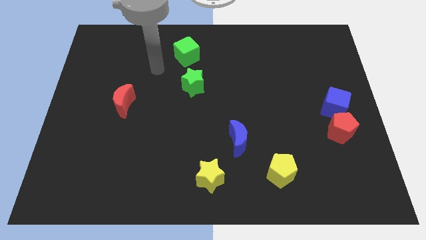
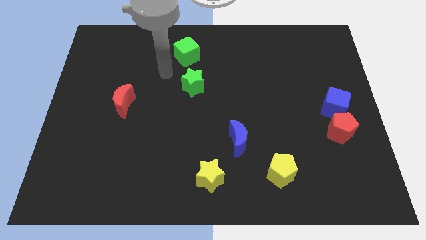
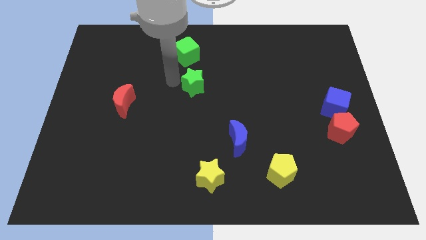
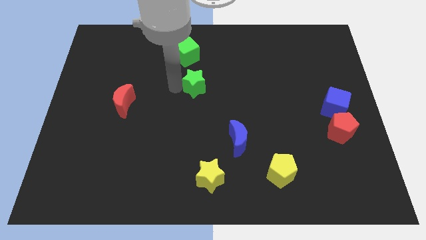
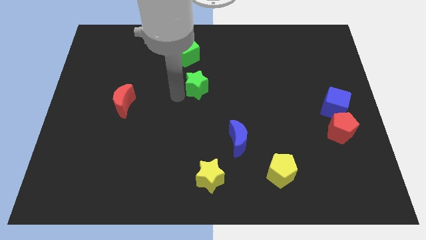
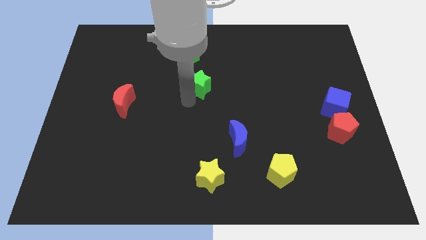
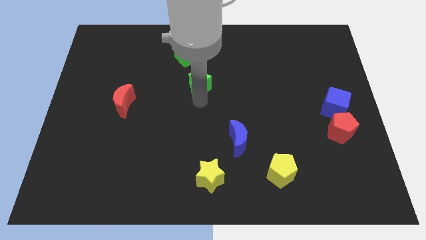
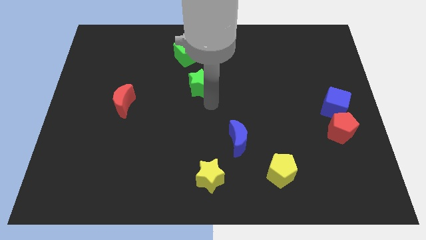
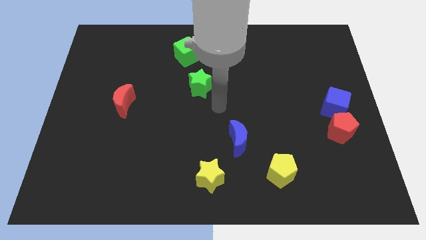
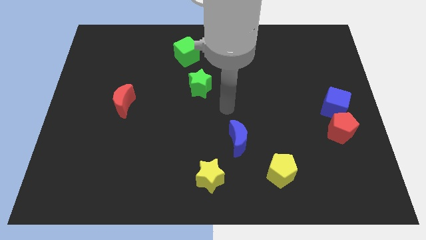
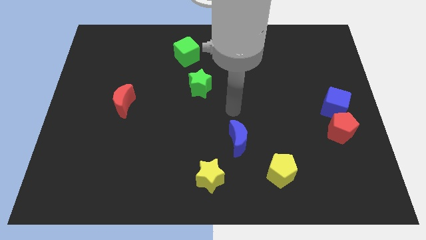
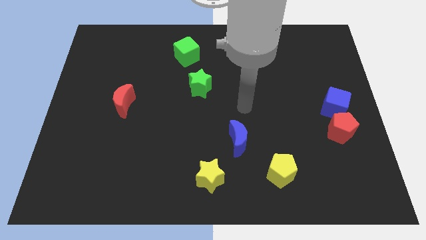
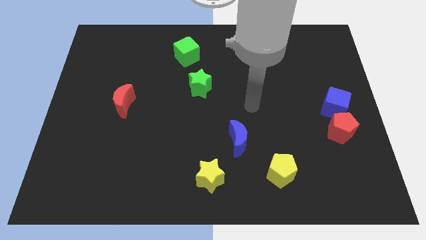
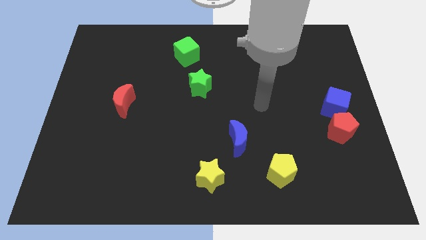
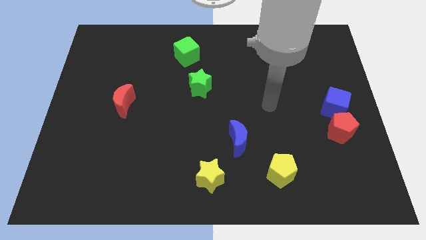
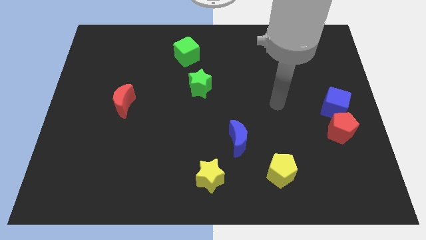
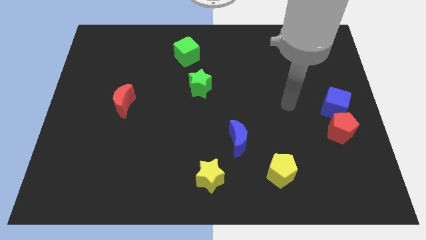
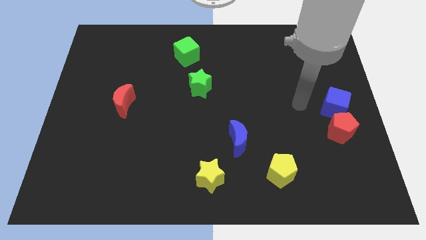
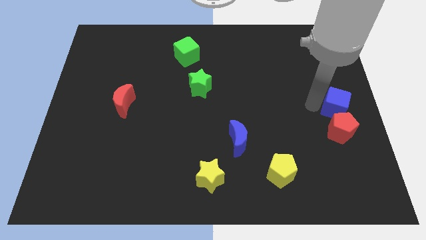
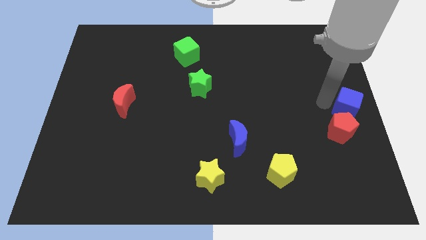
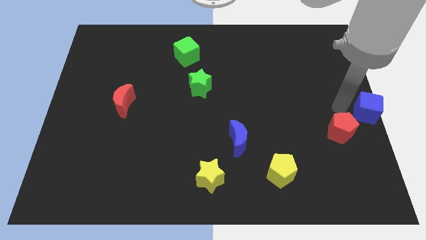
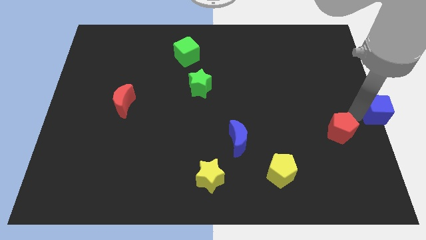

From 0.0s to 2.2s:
move the red pentagon away from the blue cube

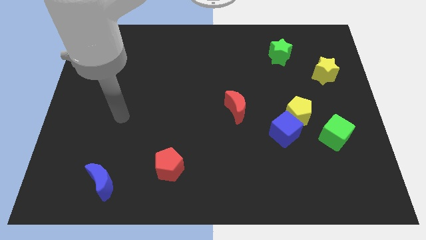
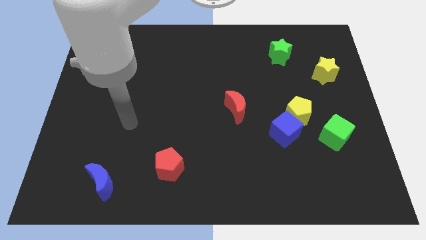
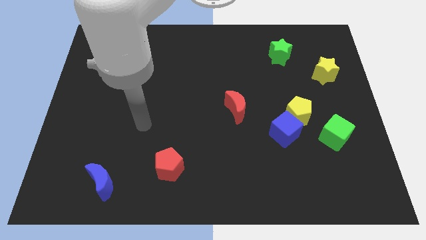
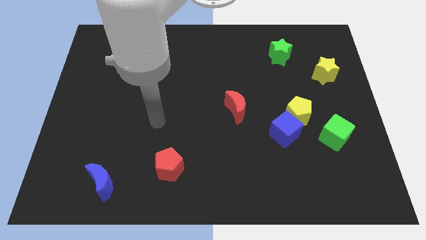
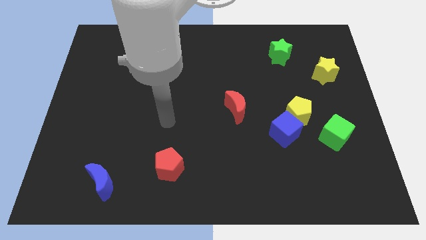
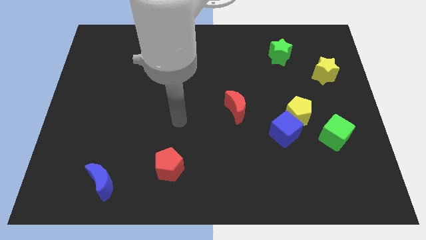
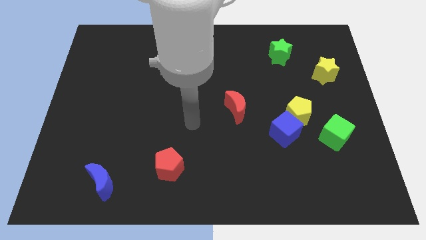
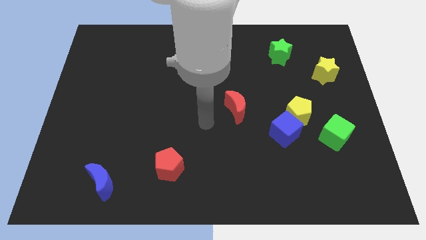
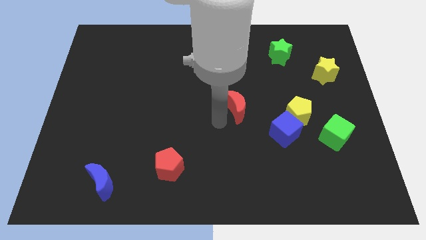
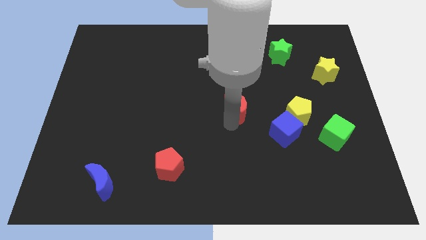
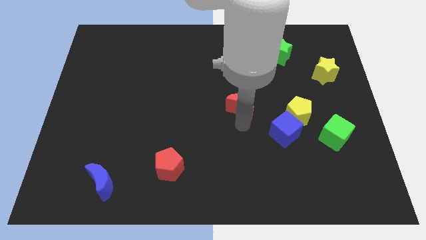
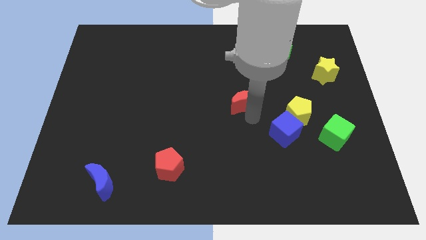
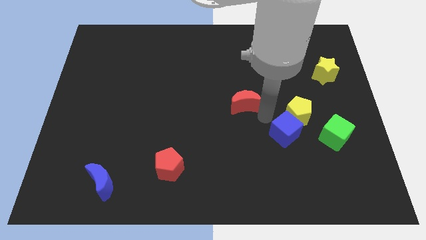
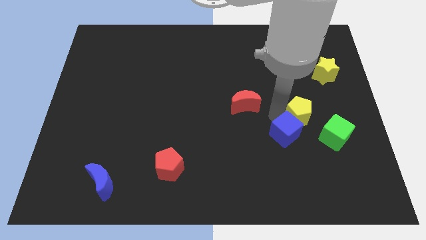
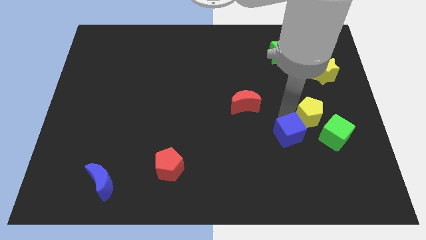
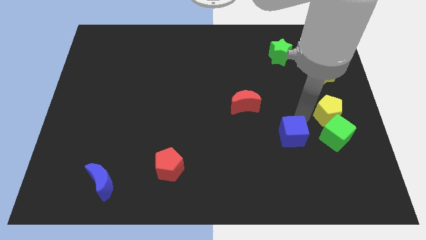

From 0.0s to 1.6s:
pull the blue cube apart from the yellow pentagon

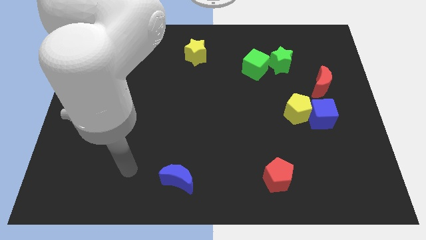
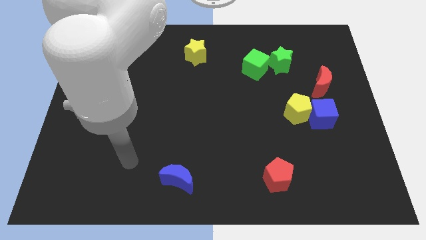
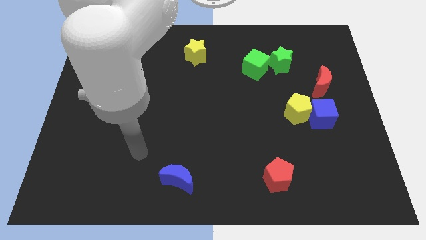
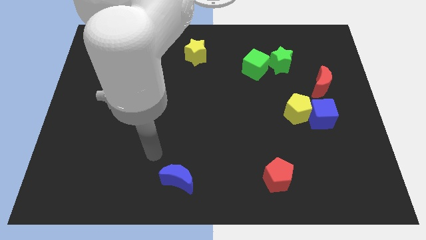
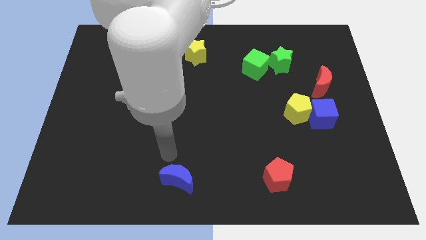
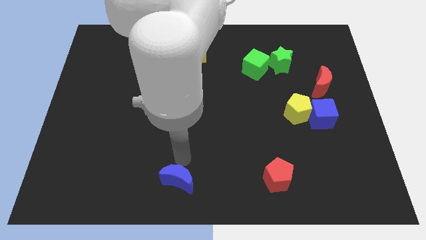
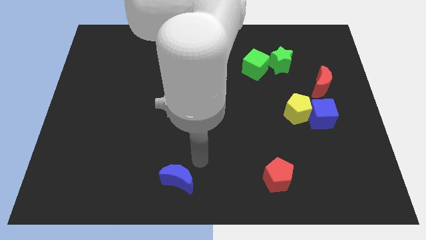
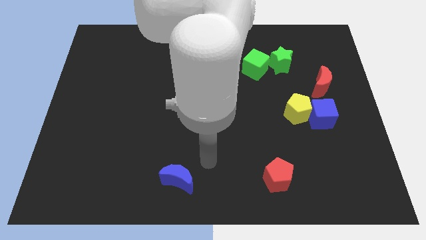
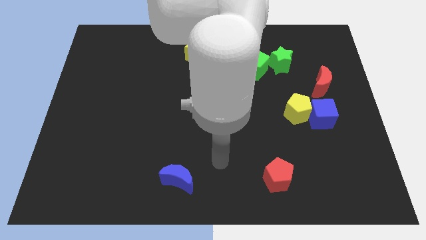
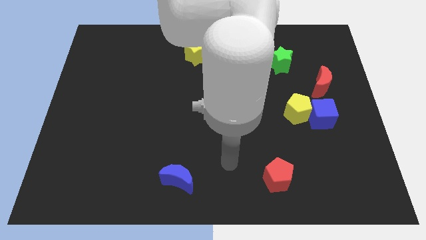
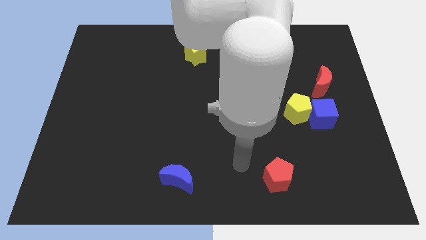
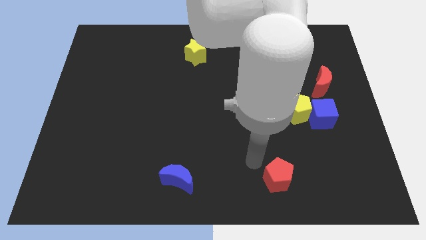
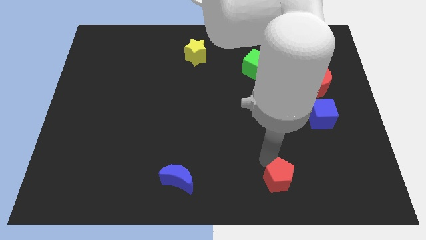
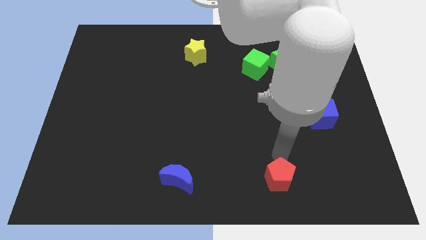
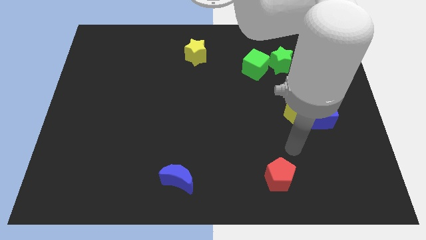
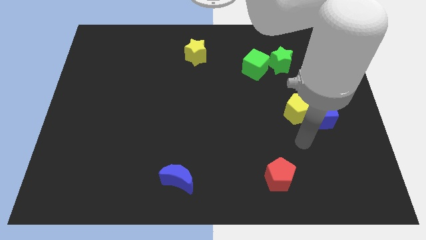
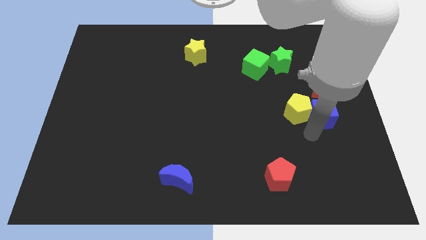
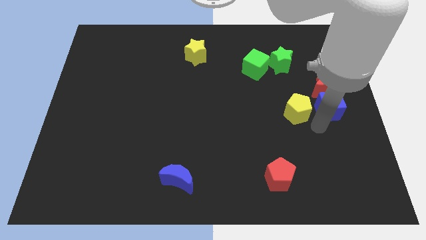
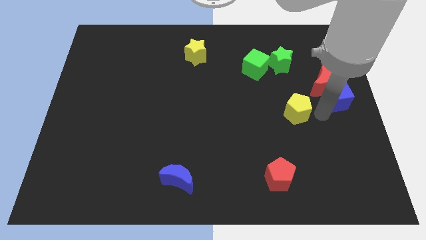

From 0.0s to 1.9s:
pull the yellow pentagon apart from the blue cube

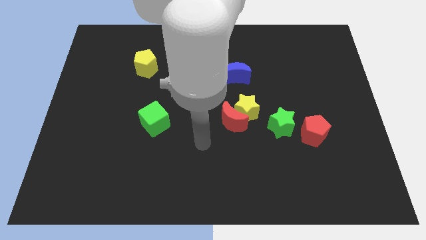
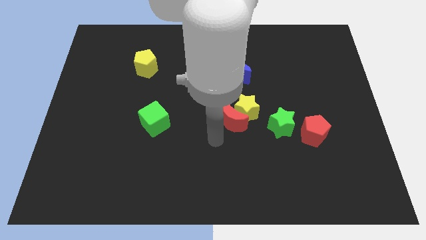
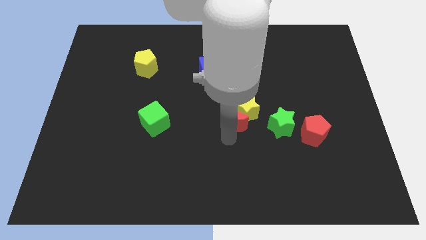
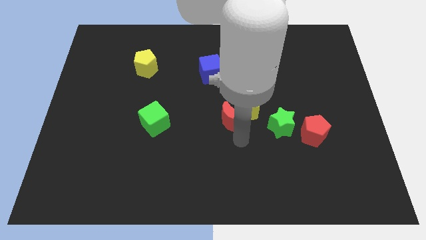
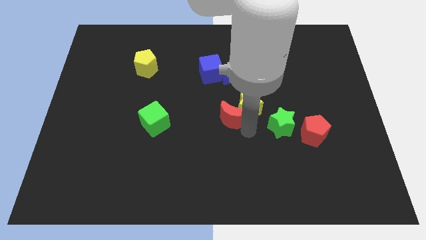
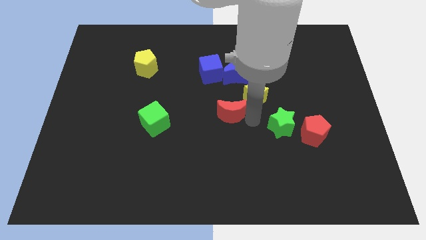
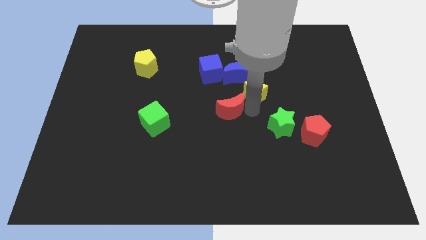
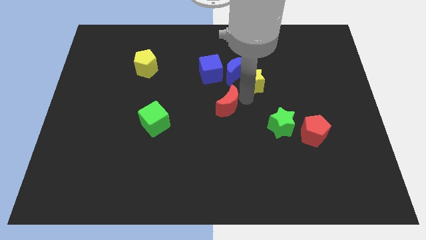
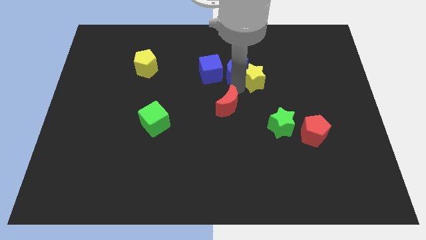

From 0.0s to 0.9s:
pull the red moon apart from the yellow star

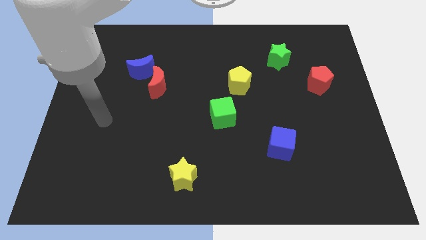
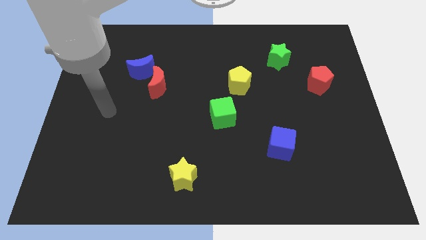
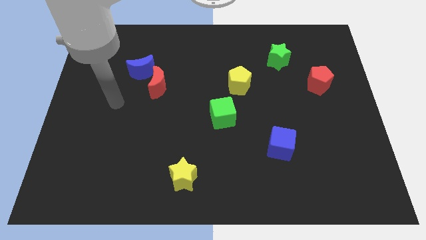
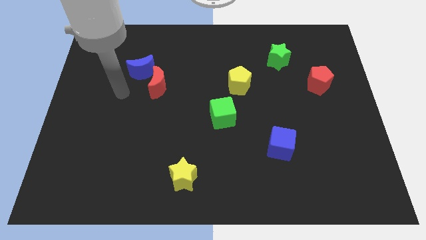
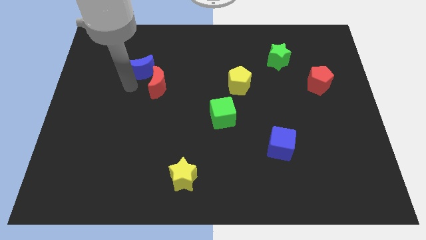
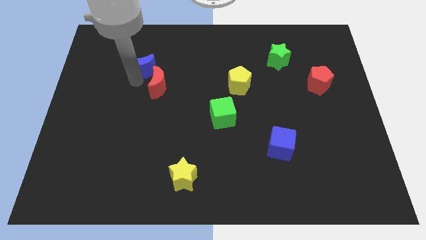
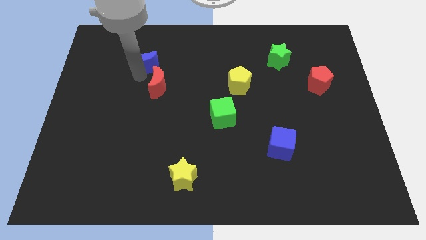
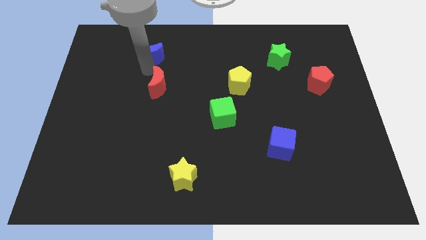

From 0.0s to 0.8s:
pull the red moon apart from the blue moon

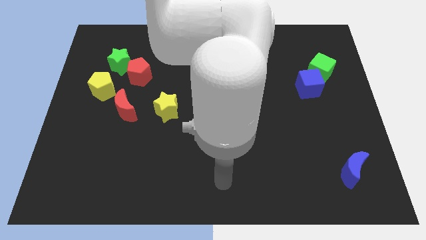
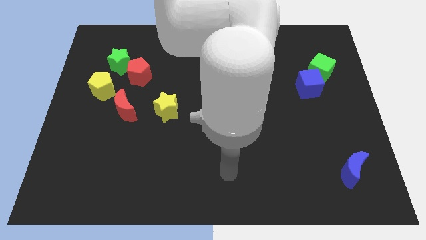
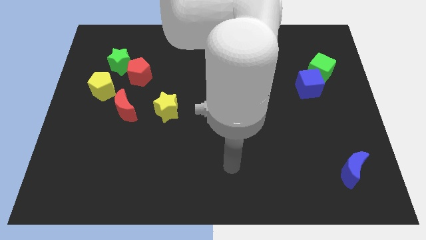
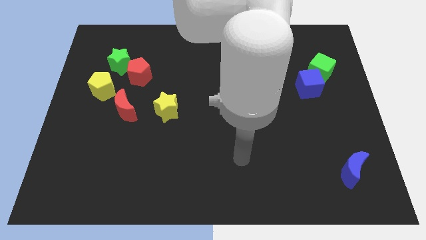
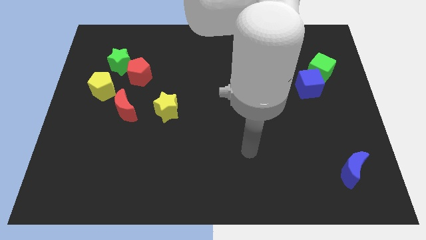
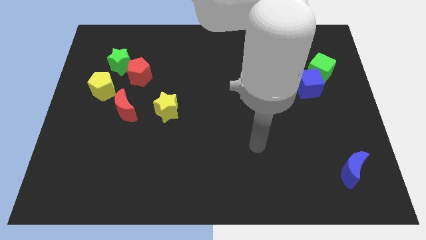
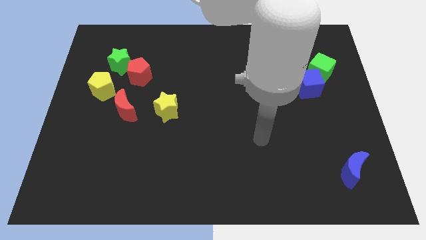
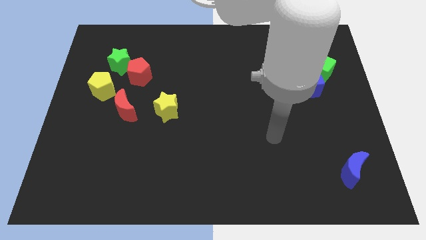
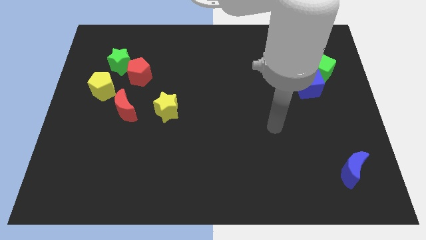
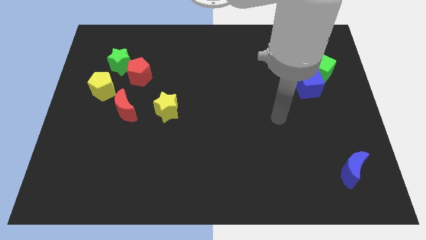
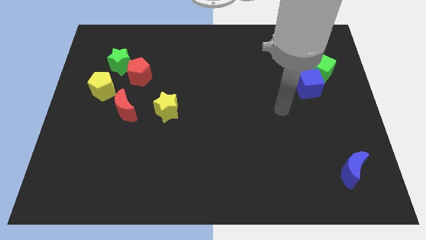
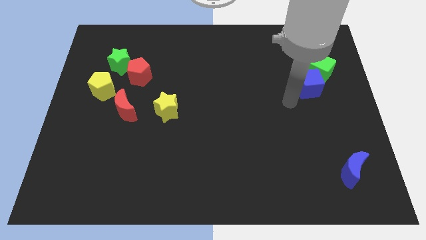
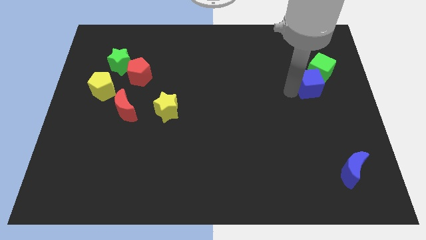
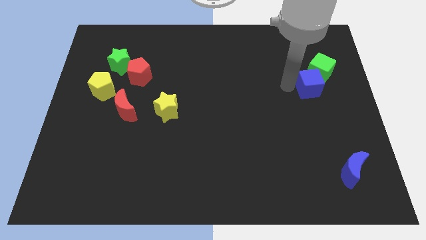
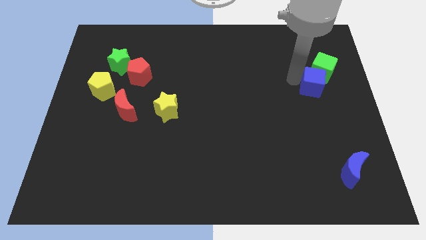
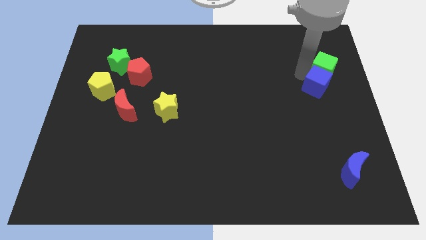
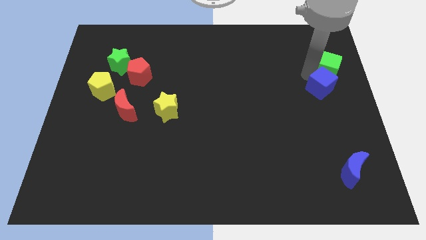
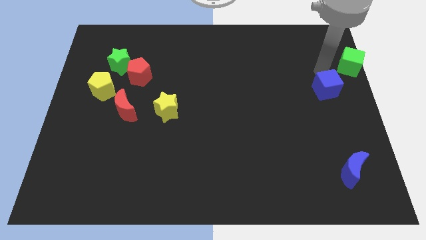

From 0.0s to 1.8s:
move the blue cube away from the green cube

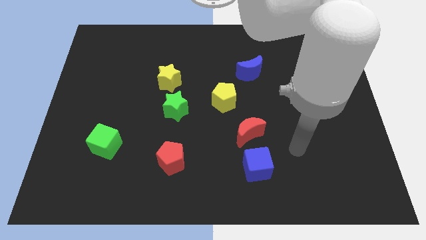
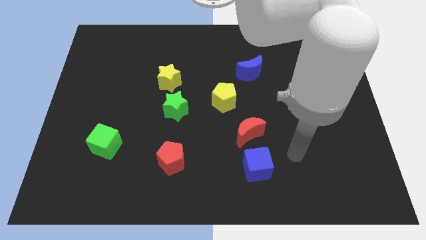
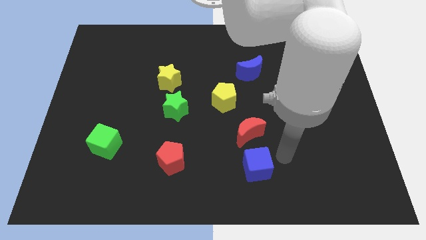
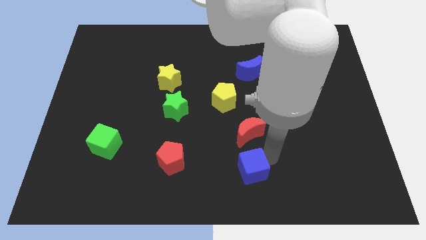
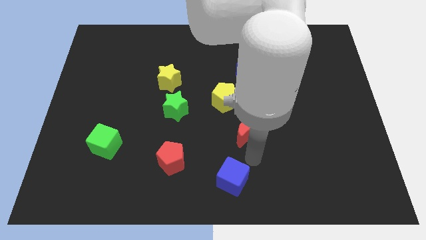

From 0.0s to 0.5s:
separate the red moon from the blue cube
